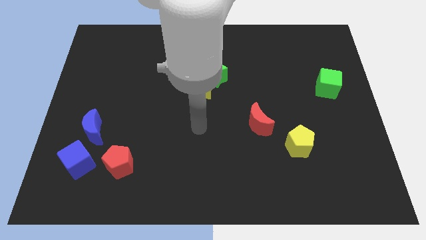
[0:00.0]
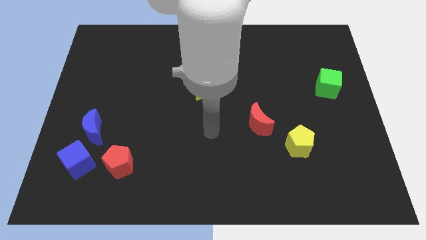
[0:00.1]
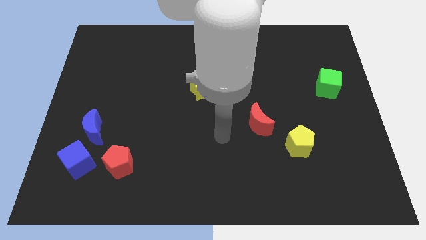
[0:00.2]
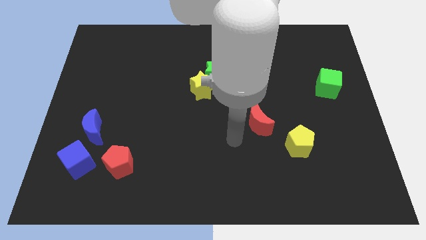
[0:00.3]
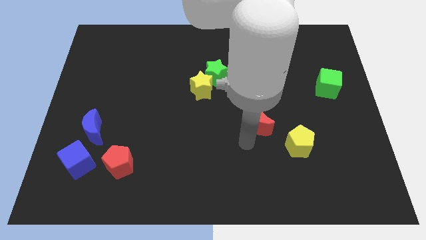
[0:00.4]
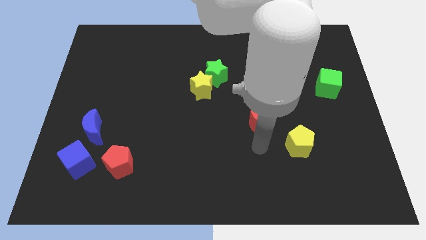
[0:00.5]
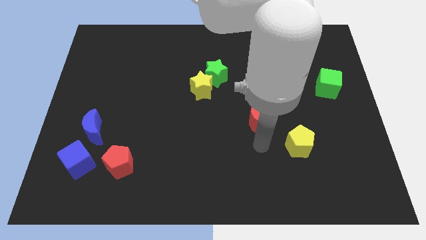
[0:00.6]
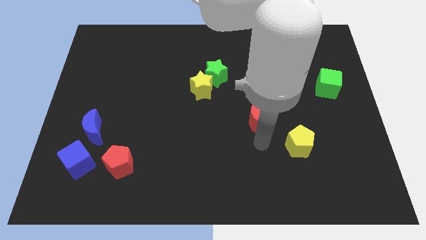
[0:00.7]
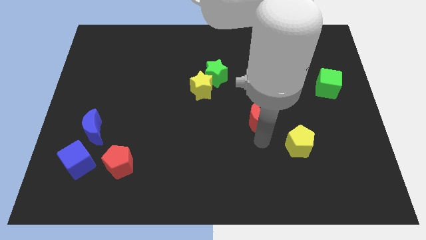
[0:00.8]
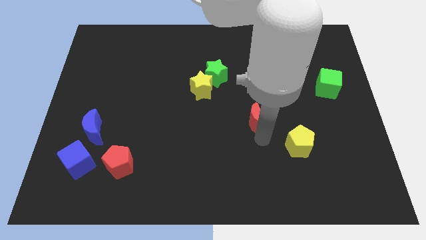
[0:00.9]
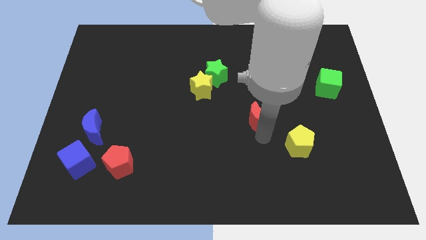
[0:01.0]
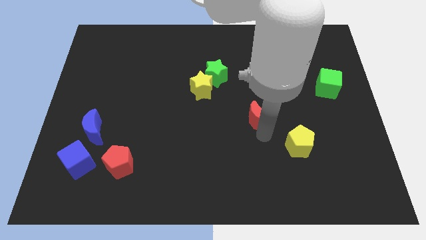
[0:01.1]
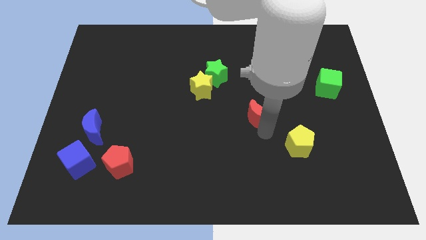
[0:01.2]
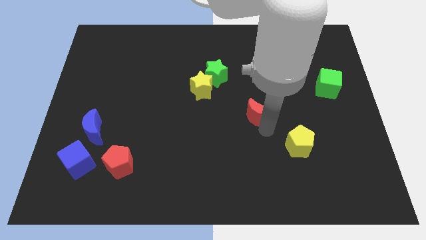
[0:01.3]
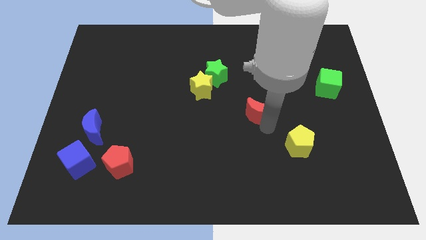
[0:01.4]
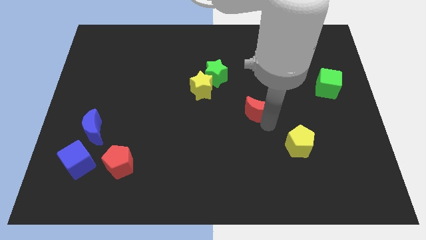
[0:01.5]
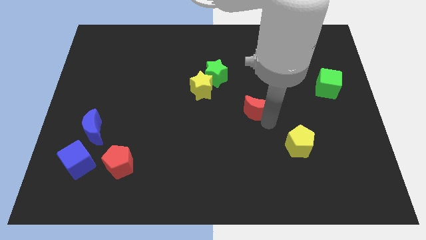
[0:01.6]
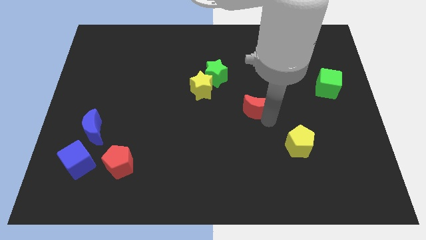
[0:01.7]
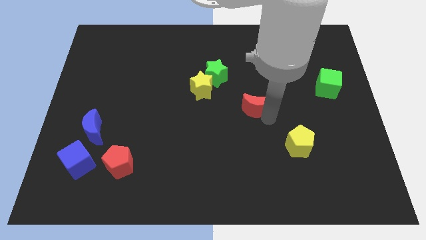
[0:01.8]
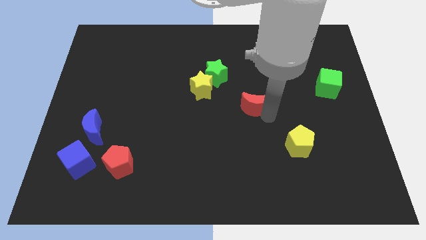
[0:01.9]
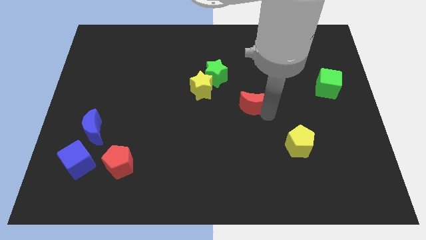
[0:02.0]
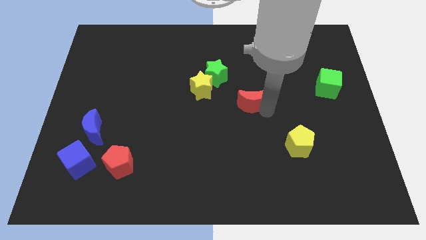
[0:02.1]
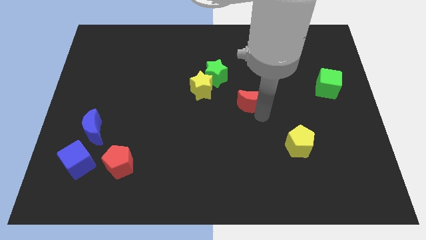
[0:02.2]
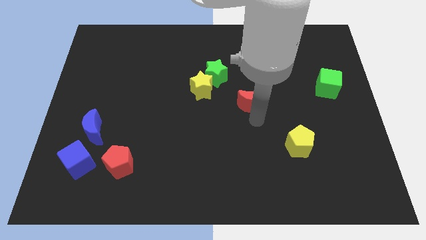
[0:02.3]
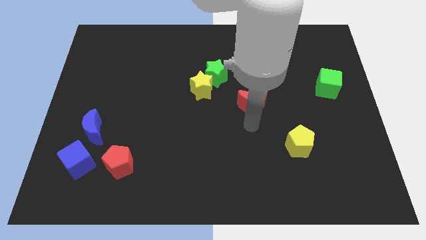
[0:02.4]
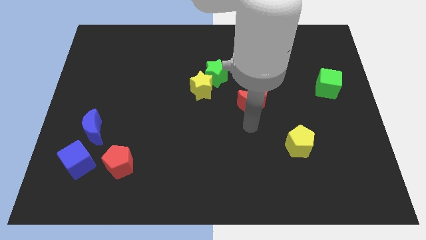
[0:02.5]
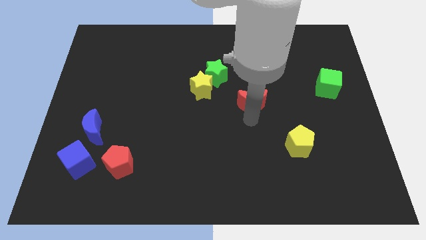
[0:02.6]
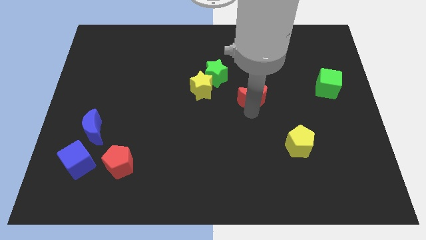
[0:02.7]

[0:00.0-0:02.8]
move the red moon a little upwards

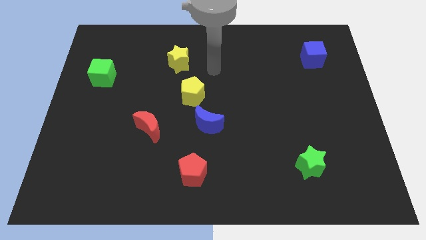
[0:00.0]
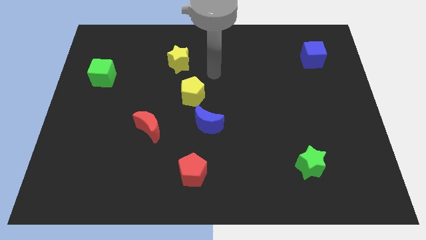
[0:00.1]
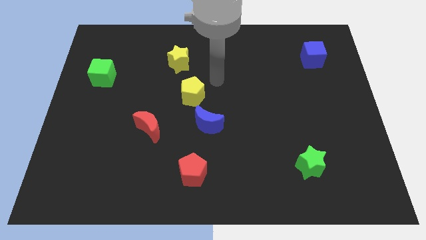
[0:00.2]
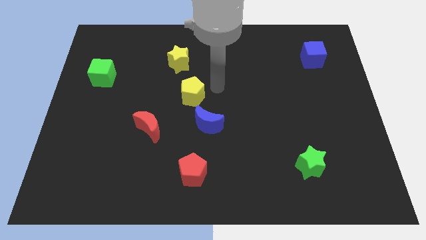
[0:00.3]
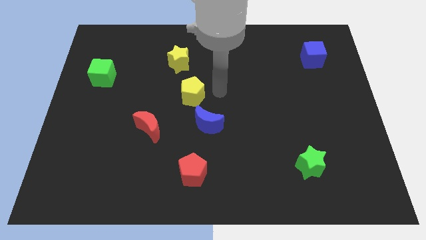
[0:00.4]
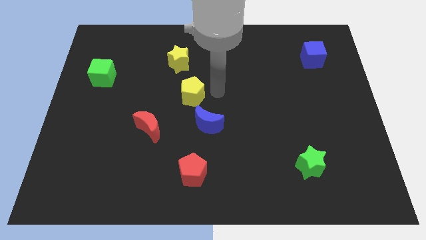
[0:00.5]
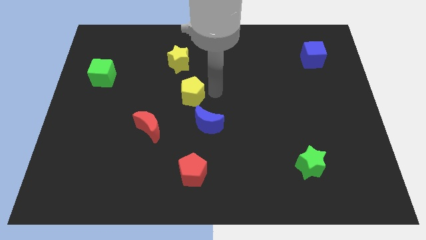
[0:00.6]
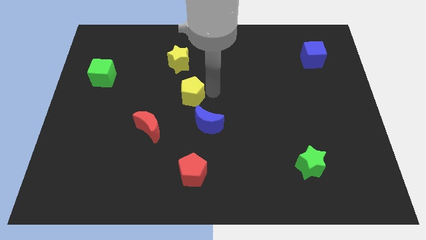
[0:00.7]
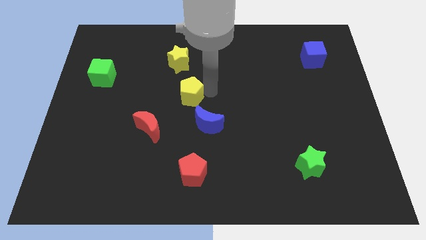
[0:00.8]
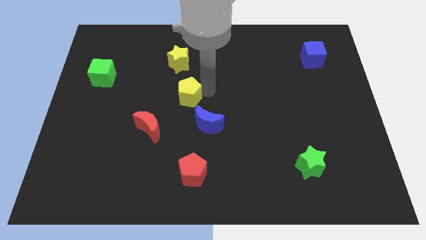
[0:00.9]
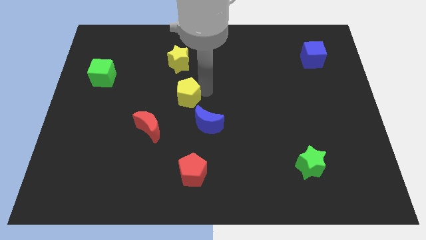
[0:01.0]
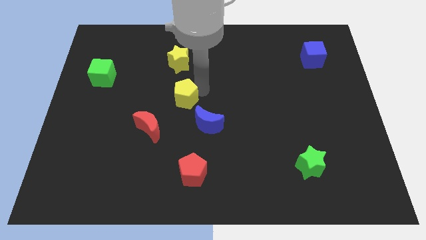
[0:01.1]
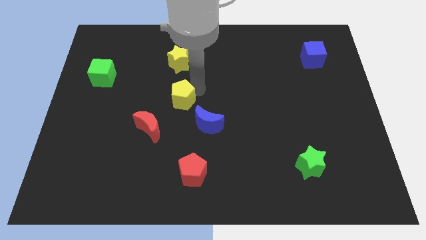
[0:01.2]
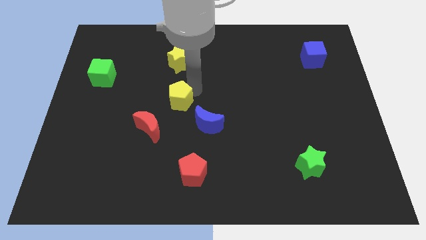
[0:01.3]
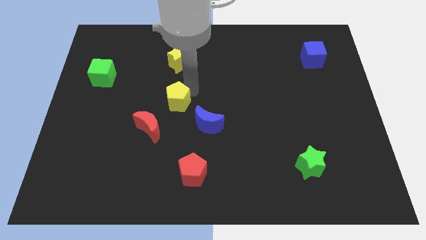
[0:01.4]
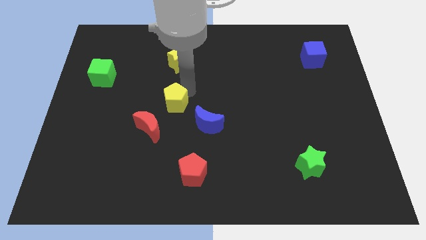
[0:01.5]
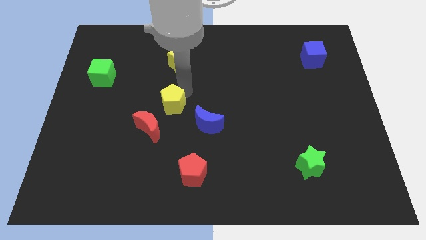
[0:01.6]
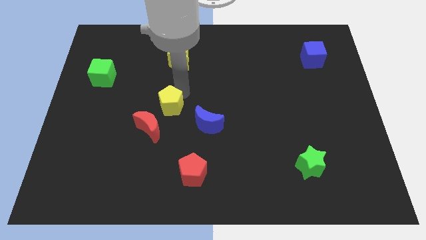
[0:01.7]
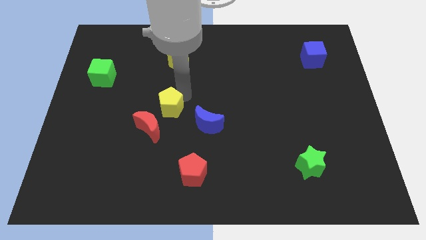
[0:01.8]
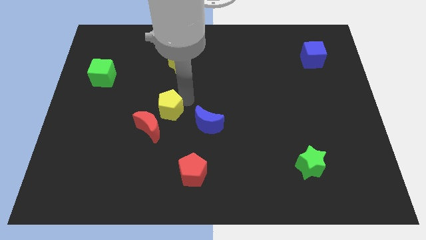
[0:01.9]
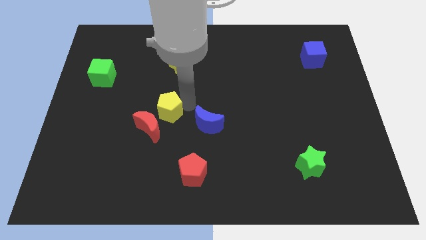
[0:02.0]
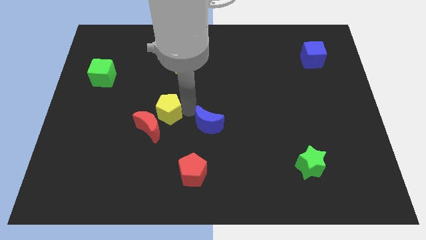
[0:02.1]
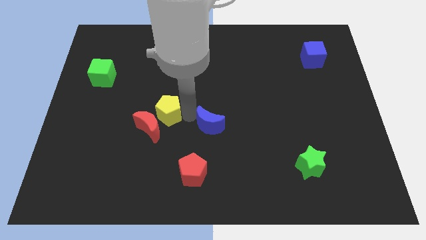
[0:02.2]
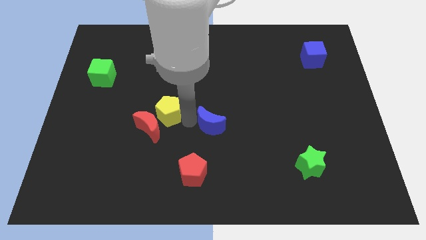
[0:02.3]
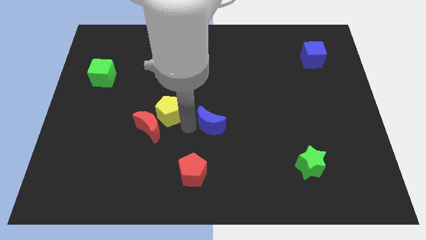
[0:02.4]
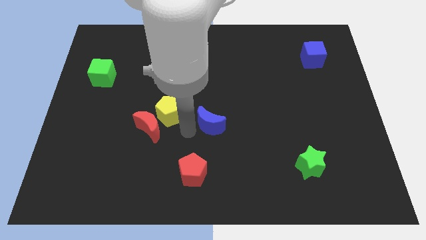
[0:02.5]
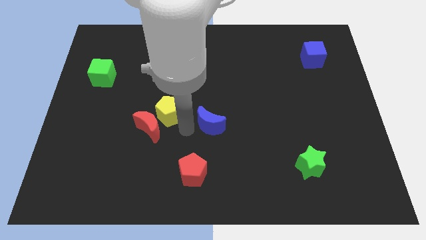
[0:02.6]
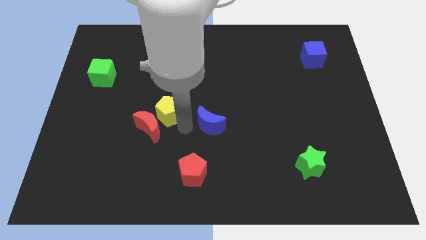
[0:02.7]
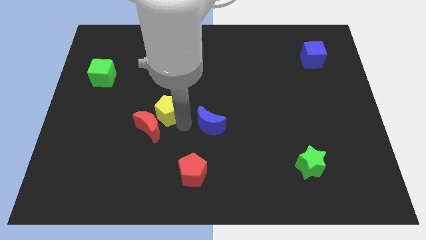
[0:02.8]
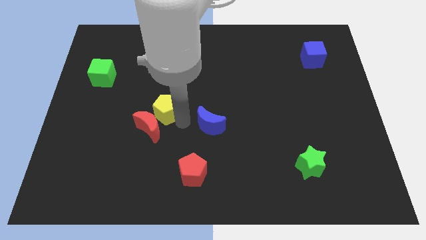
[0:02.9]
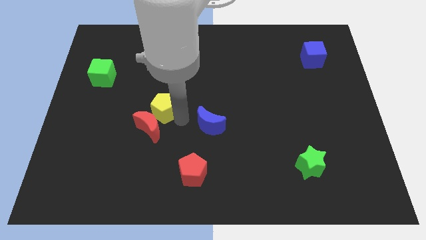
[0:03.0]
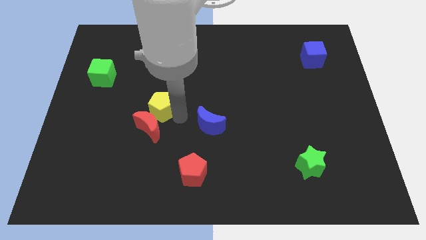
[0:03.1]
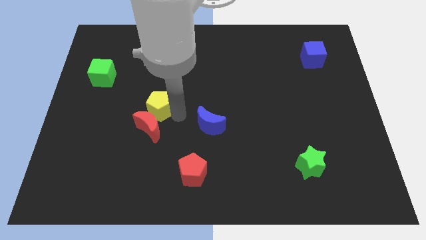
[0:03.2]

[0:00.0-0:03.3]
slide the yellow pentagon a little to the left

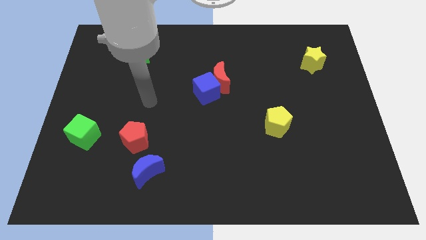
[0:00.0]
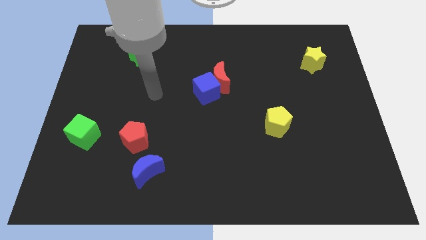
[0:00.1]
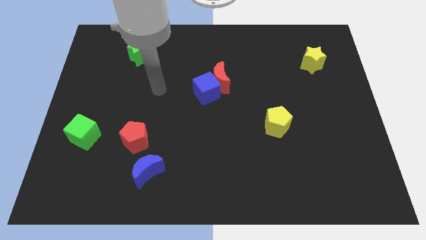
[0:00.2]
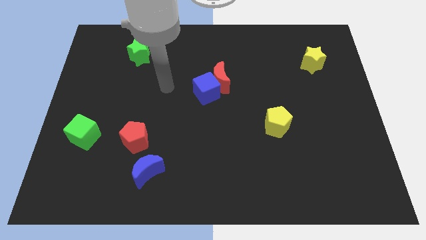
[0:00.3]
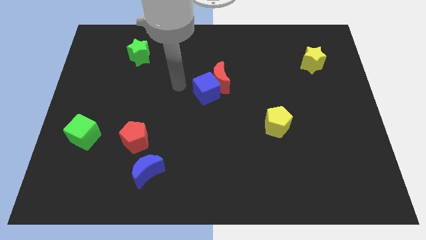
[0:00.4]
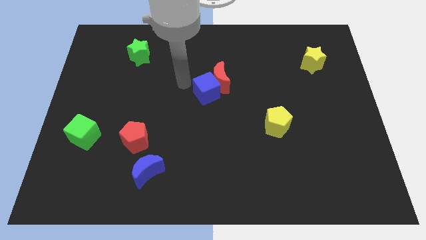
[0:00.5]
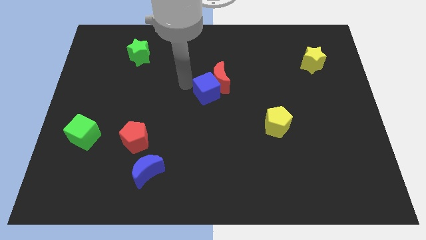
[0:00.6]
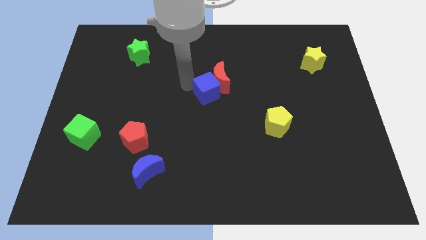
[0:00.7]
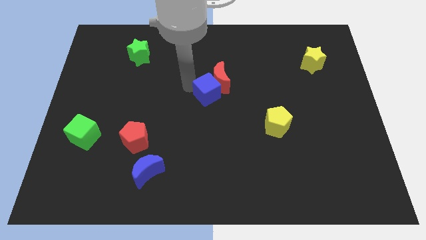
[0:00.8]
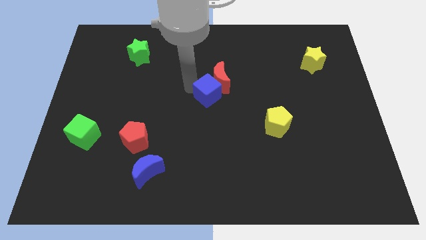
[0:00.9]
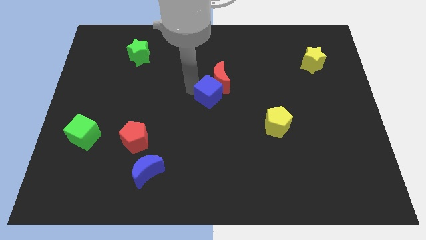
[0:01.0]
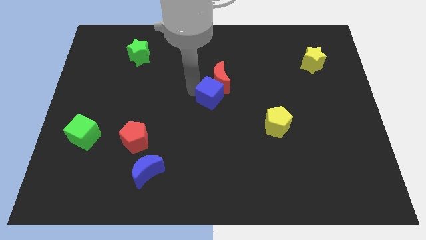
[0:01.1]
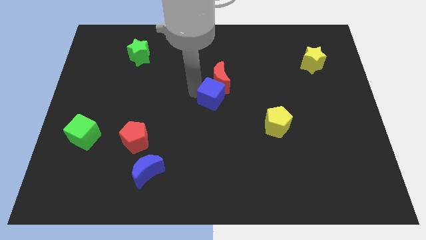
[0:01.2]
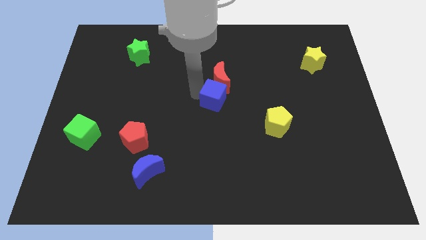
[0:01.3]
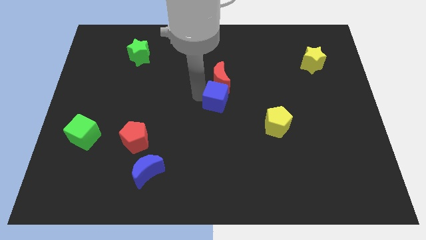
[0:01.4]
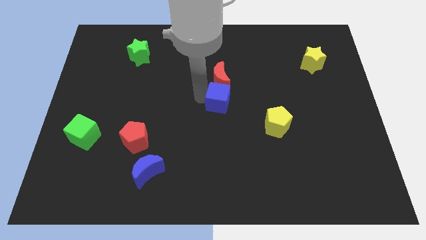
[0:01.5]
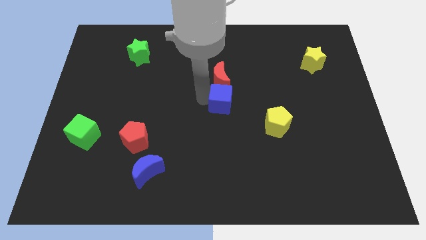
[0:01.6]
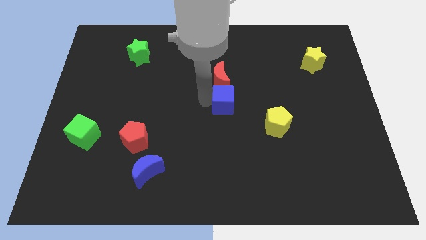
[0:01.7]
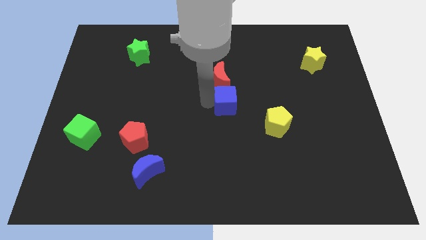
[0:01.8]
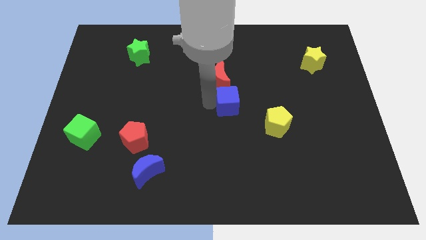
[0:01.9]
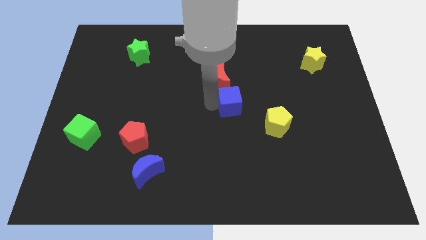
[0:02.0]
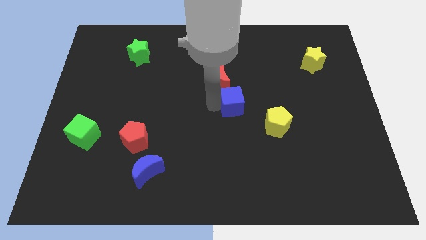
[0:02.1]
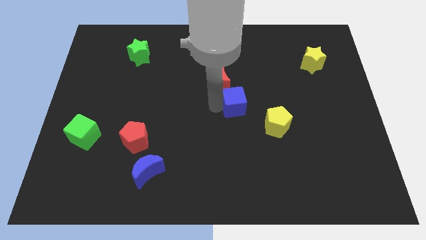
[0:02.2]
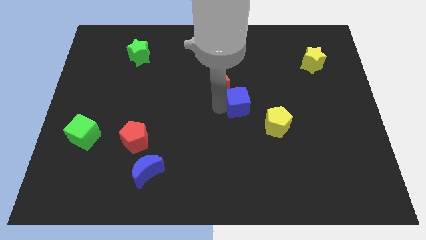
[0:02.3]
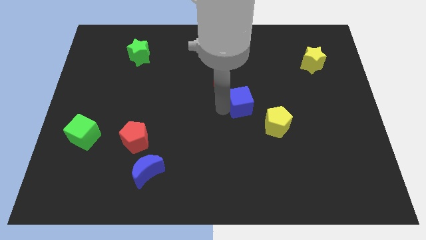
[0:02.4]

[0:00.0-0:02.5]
slightly push the blue cube to the right
